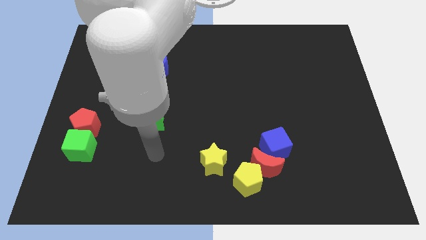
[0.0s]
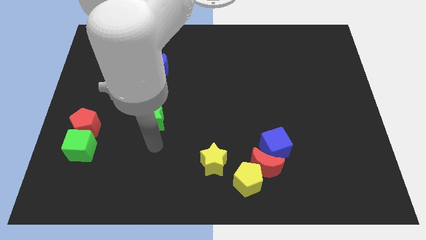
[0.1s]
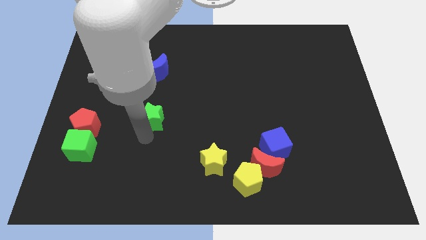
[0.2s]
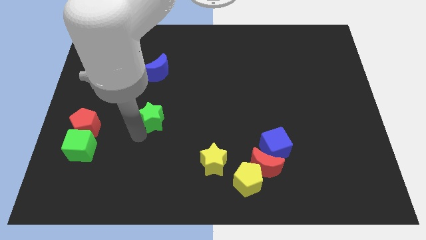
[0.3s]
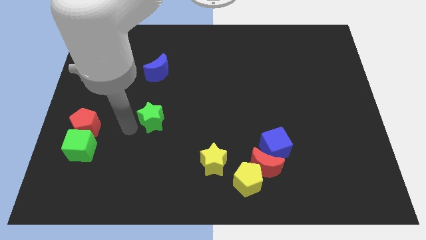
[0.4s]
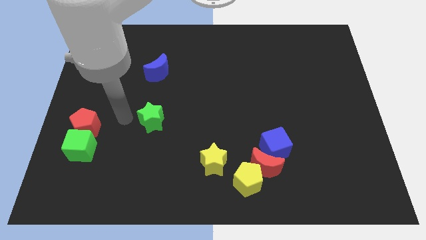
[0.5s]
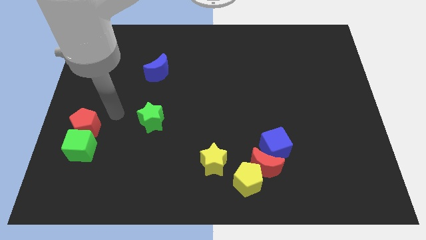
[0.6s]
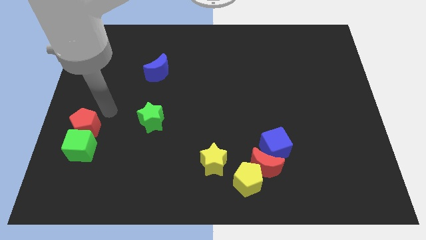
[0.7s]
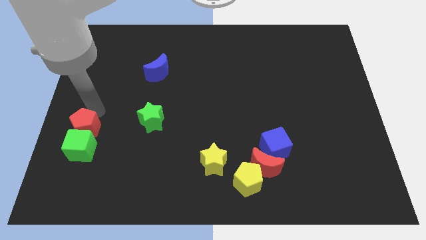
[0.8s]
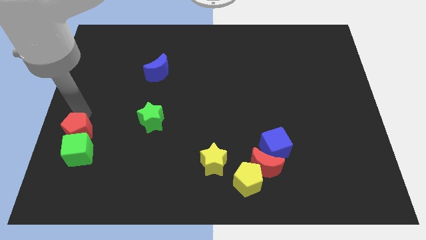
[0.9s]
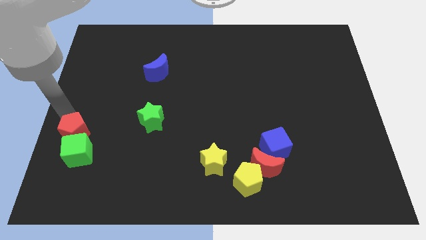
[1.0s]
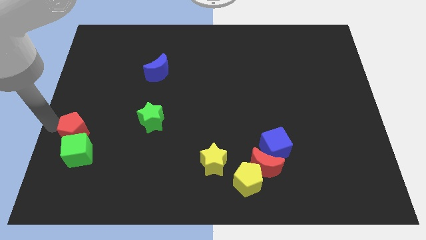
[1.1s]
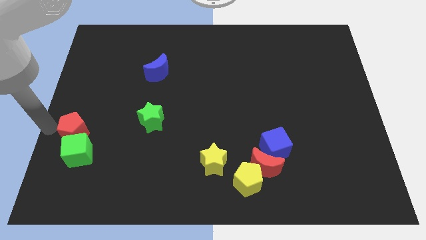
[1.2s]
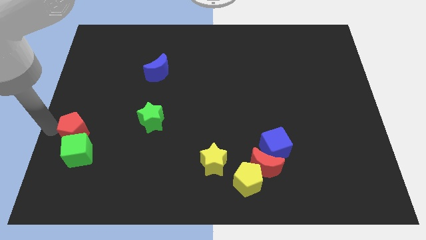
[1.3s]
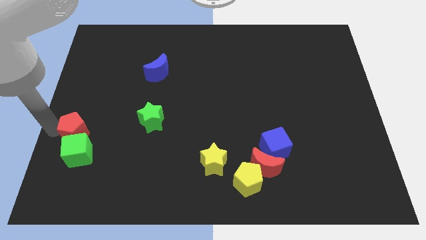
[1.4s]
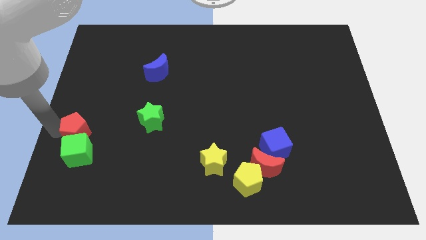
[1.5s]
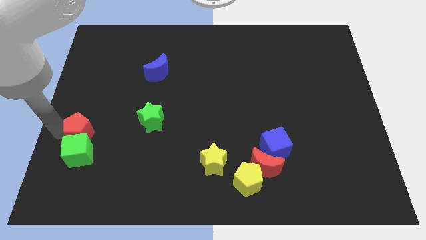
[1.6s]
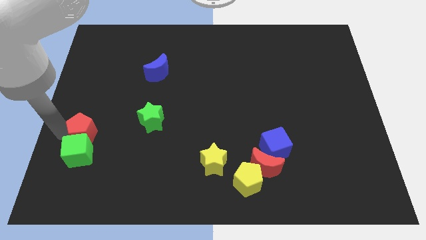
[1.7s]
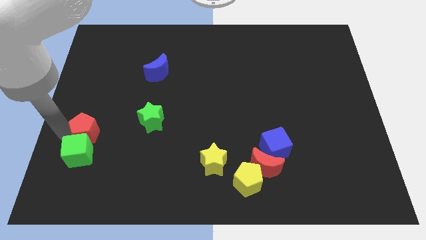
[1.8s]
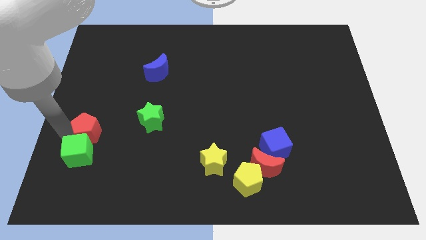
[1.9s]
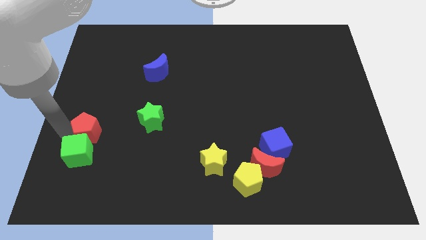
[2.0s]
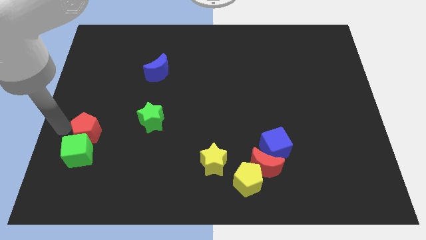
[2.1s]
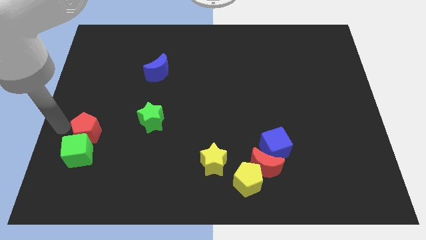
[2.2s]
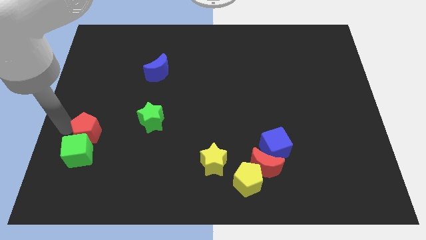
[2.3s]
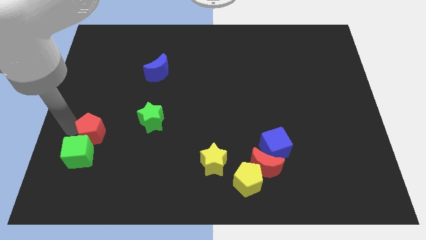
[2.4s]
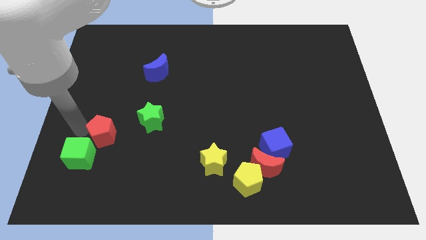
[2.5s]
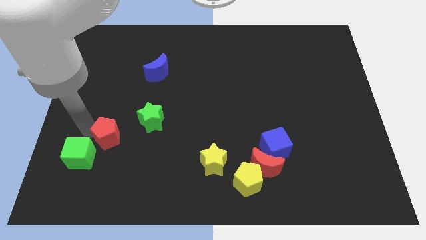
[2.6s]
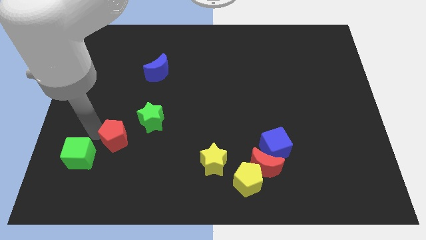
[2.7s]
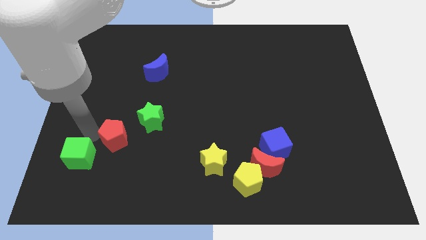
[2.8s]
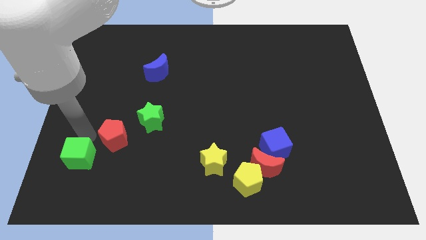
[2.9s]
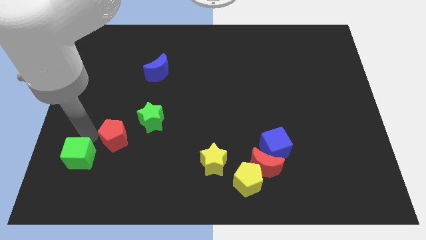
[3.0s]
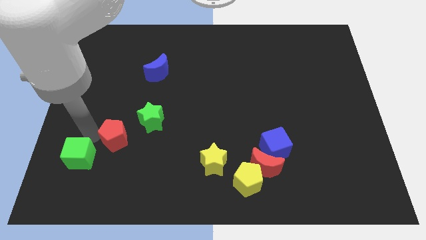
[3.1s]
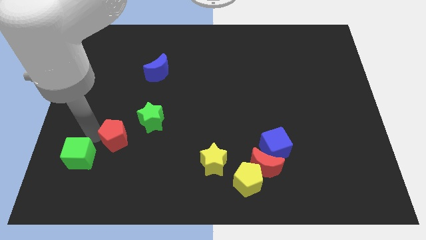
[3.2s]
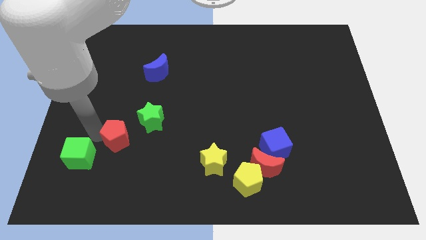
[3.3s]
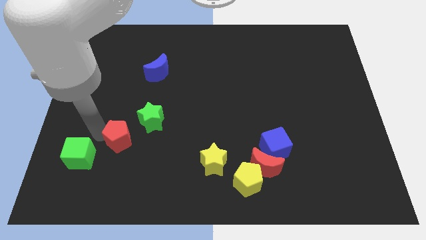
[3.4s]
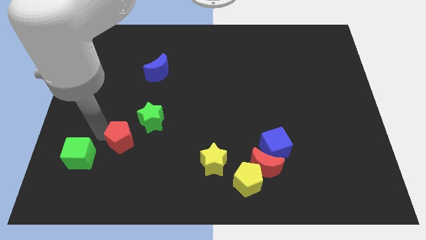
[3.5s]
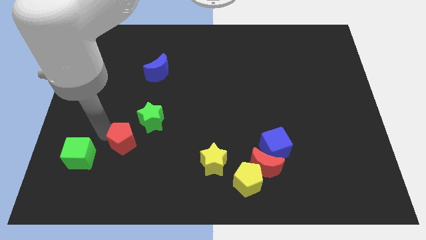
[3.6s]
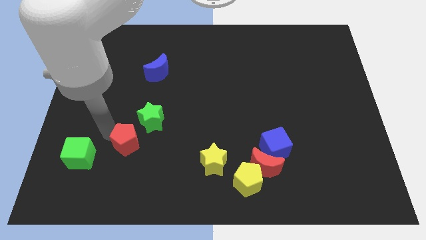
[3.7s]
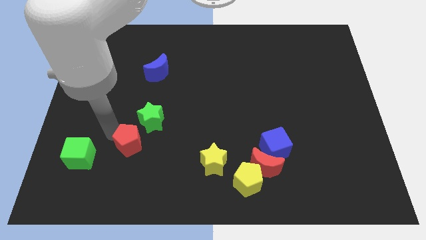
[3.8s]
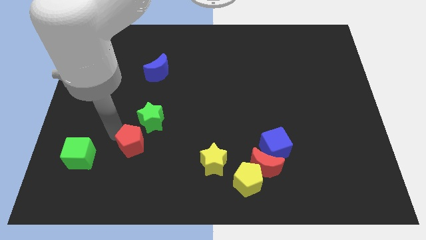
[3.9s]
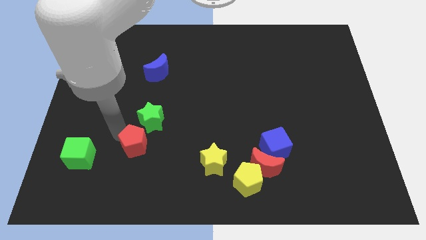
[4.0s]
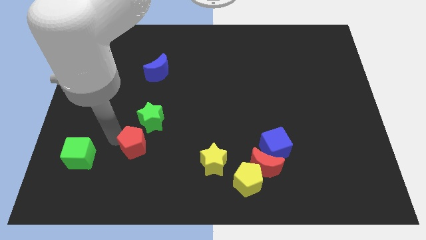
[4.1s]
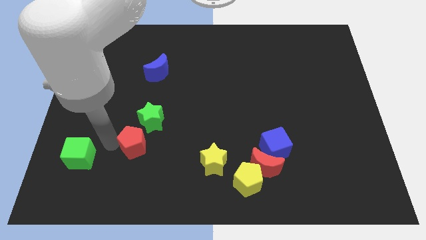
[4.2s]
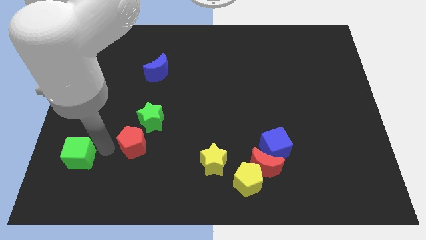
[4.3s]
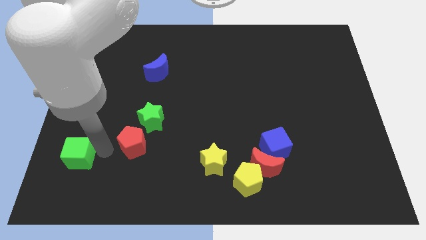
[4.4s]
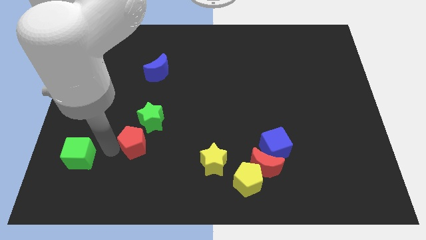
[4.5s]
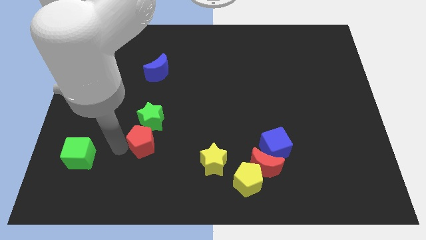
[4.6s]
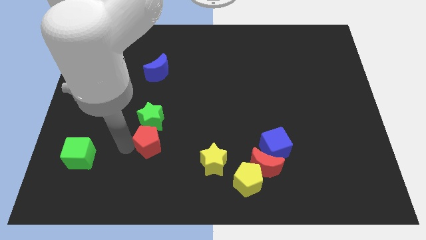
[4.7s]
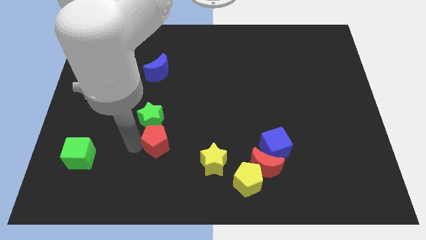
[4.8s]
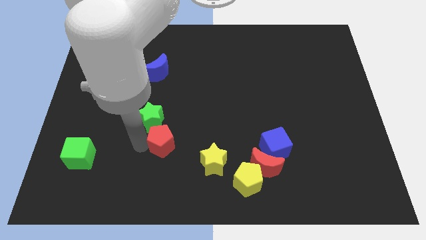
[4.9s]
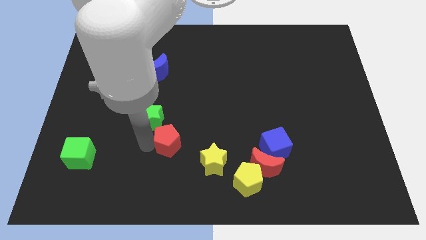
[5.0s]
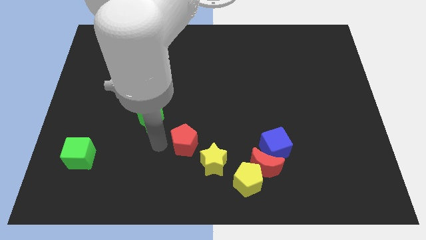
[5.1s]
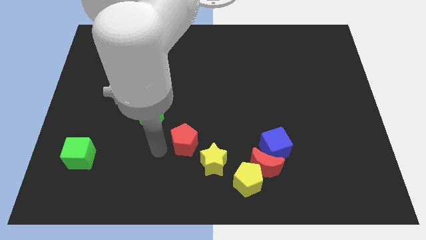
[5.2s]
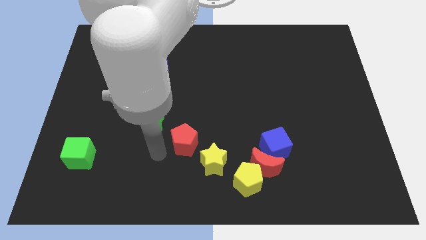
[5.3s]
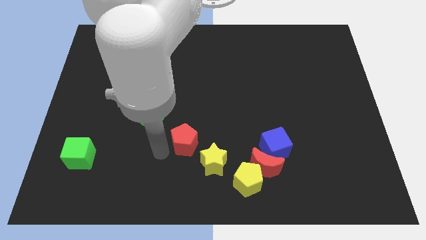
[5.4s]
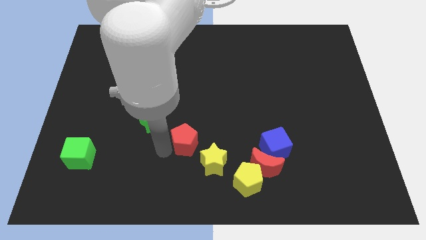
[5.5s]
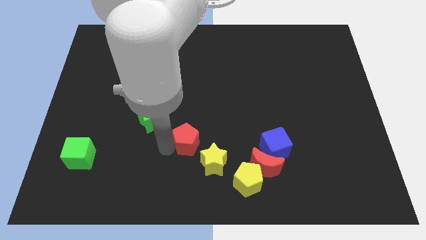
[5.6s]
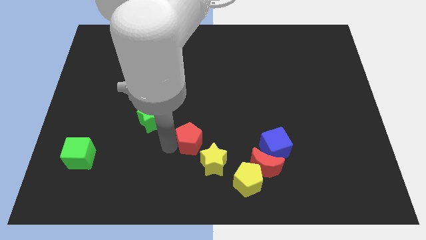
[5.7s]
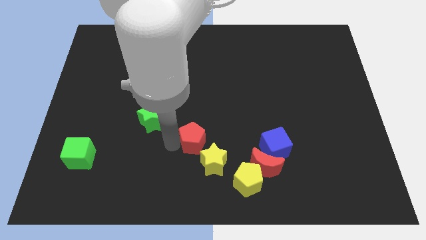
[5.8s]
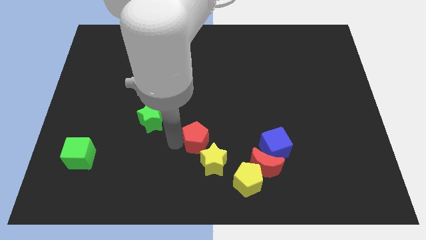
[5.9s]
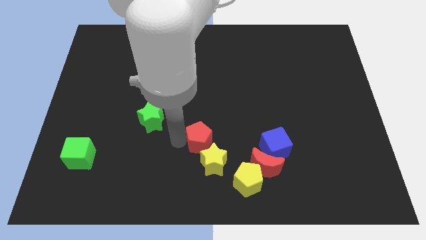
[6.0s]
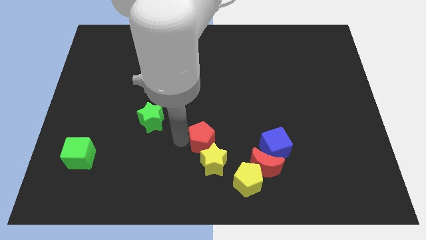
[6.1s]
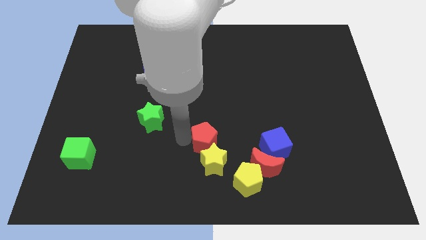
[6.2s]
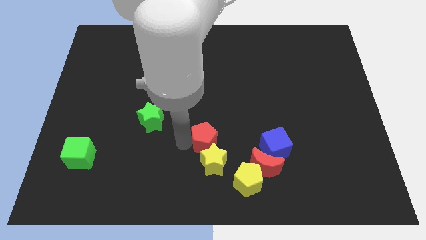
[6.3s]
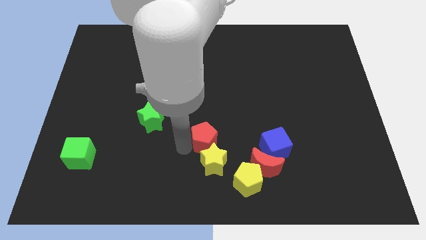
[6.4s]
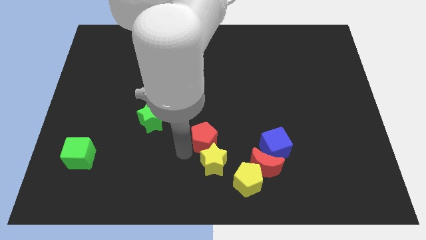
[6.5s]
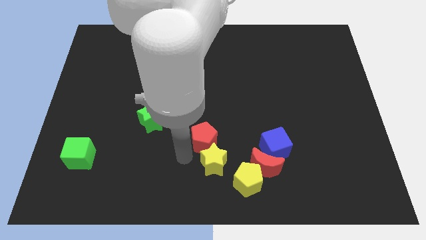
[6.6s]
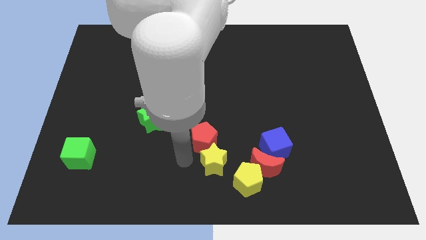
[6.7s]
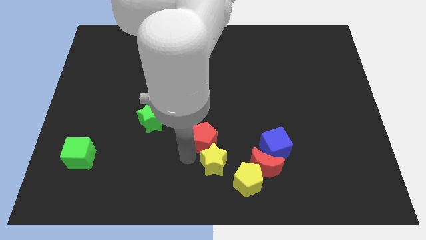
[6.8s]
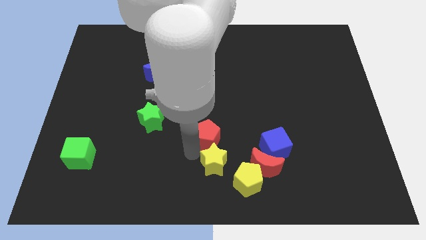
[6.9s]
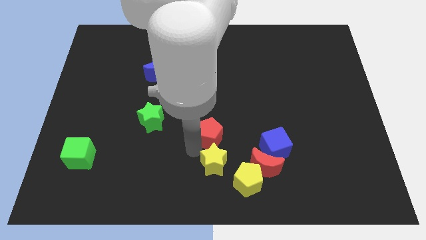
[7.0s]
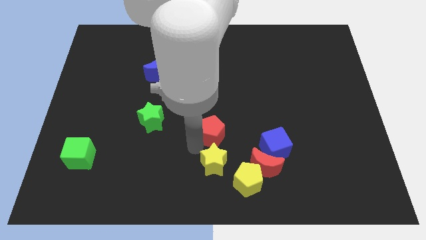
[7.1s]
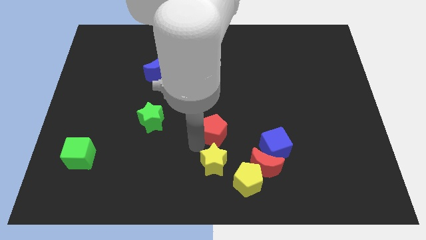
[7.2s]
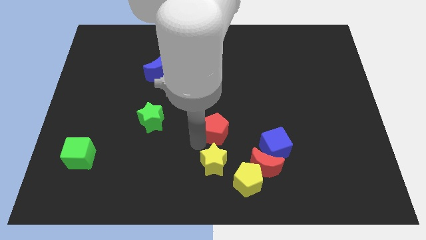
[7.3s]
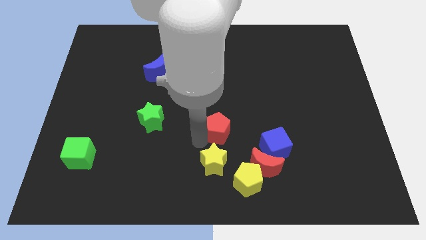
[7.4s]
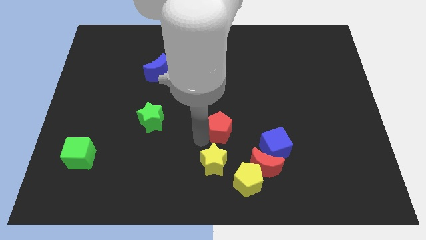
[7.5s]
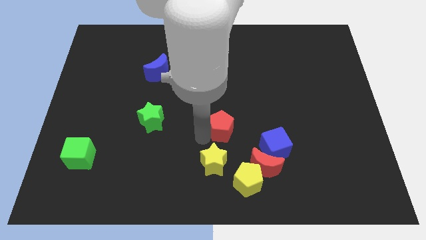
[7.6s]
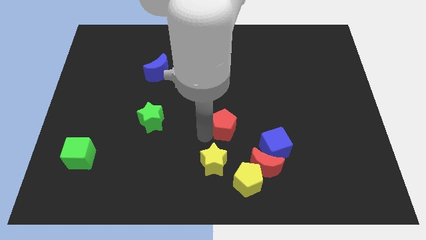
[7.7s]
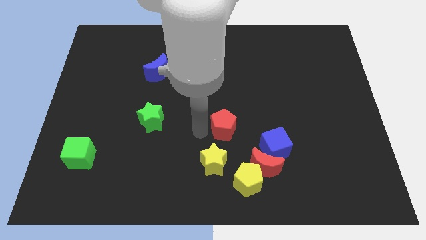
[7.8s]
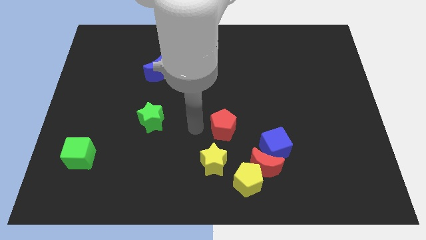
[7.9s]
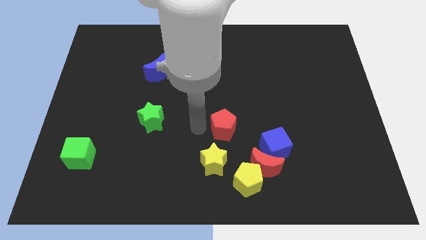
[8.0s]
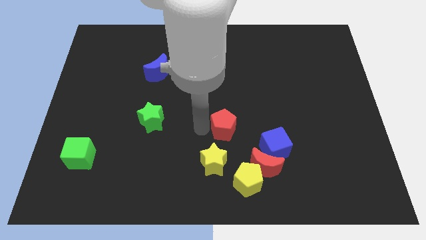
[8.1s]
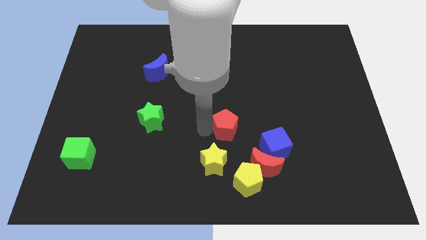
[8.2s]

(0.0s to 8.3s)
put the red pentagon to the top left side of the blue cube

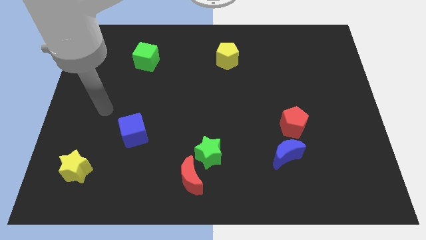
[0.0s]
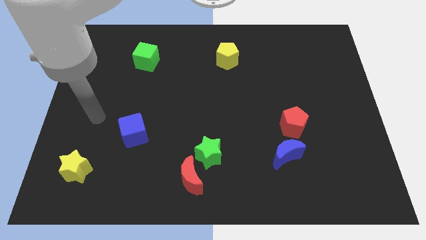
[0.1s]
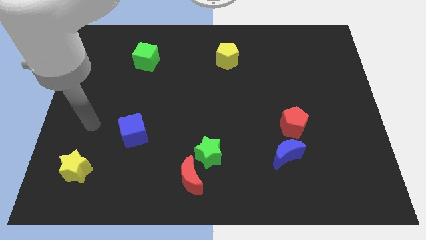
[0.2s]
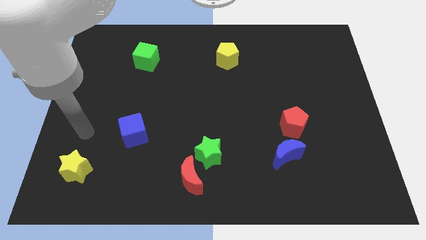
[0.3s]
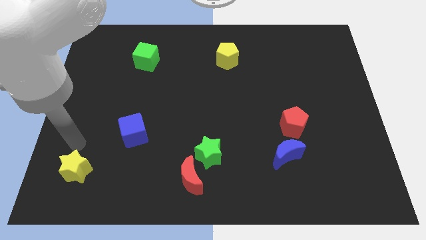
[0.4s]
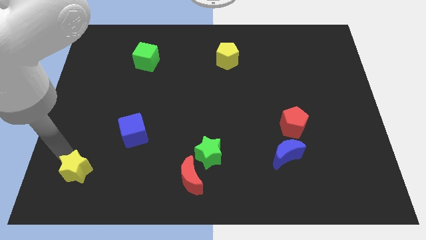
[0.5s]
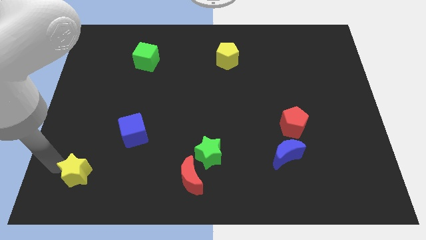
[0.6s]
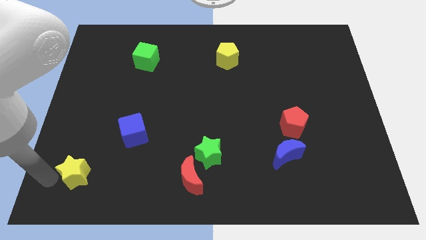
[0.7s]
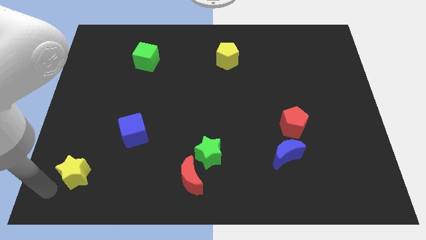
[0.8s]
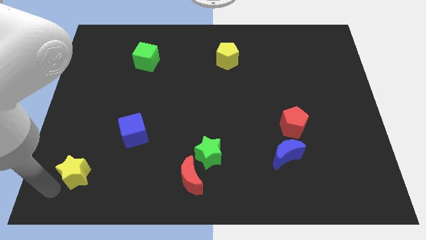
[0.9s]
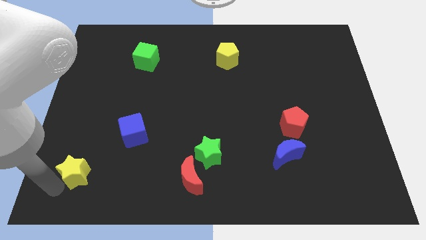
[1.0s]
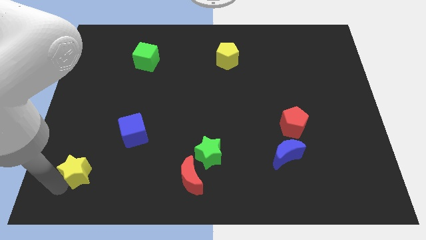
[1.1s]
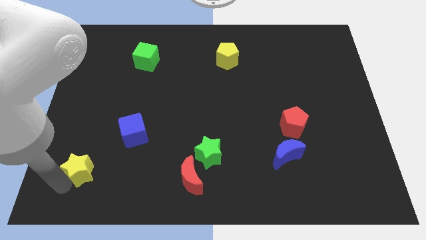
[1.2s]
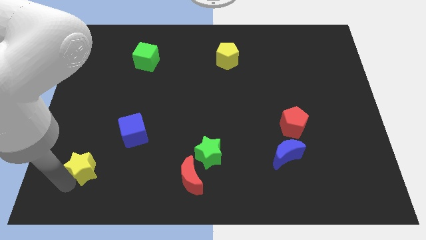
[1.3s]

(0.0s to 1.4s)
push the yellow star diagonally down and to the left of the blue cube
